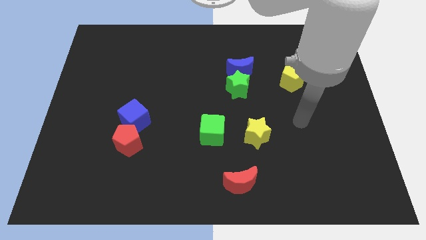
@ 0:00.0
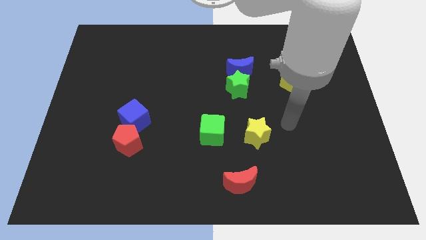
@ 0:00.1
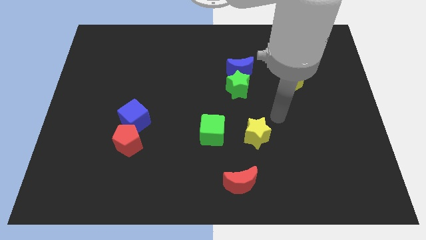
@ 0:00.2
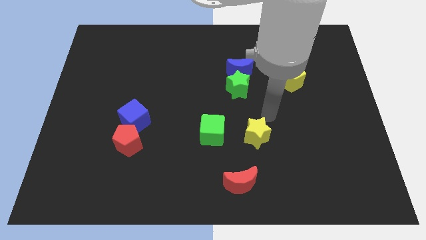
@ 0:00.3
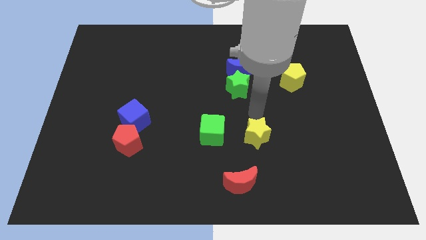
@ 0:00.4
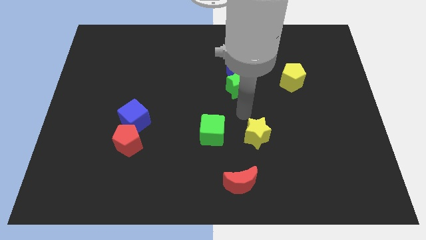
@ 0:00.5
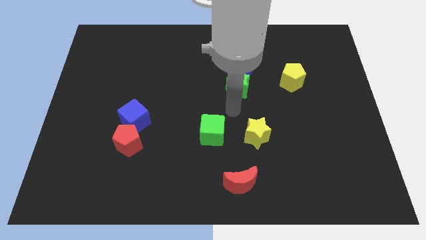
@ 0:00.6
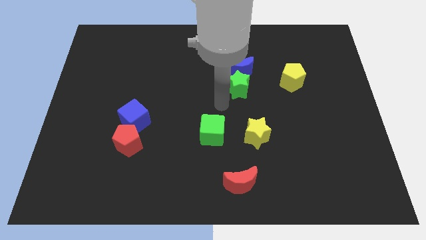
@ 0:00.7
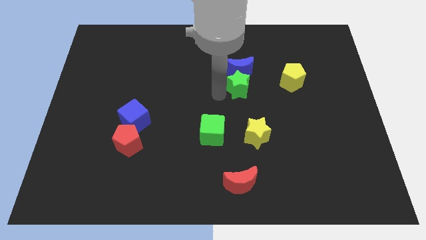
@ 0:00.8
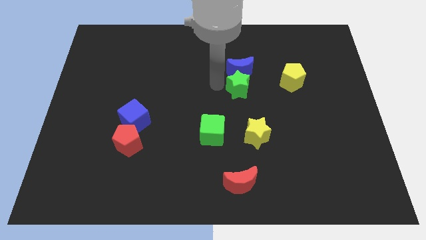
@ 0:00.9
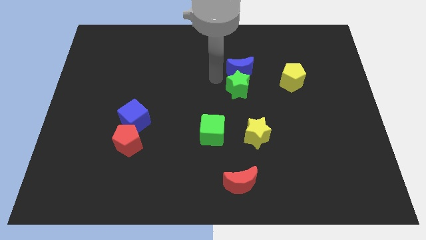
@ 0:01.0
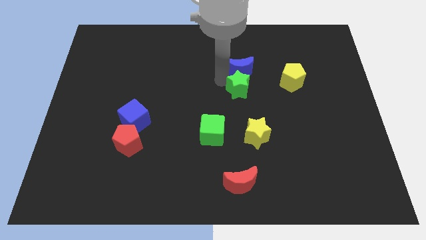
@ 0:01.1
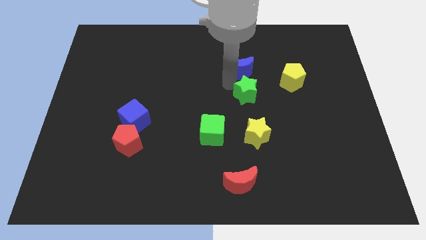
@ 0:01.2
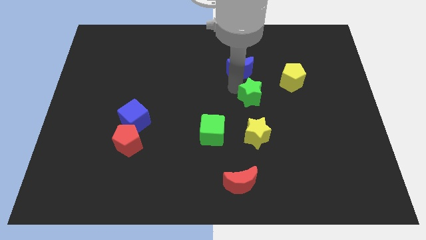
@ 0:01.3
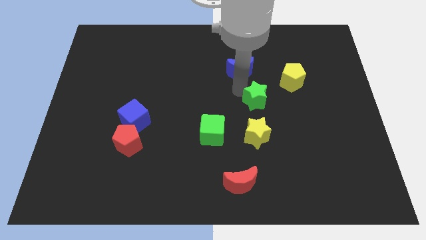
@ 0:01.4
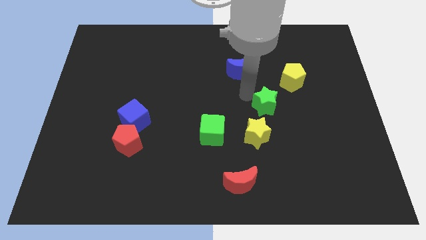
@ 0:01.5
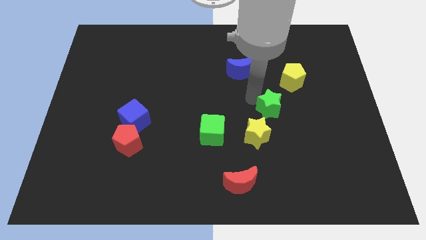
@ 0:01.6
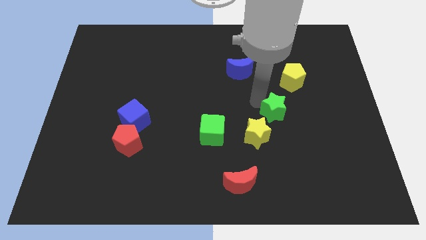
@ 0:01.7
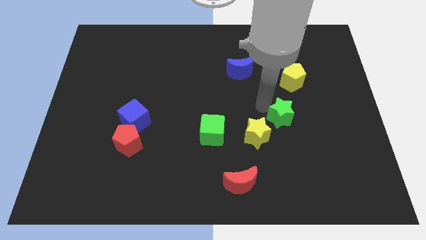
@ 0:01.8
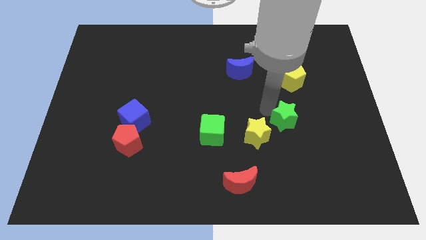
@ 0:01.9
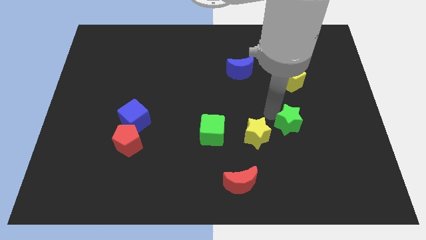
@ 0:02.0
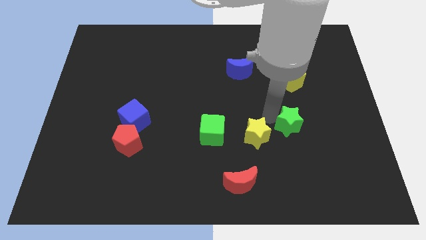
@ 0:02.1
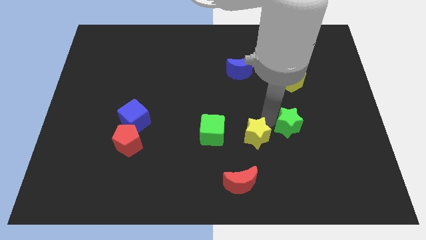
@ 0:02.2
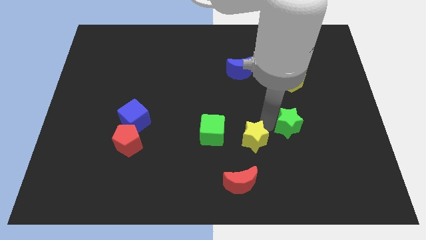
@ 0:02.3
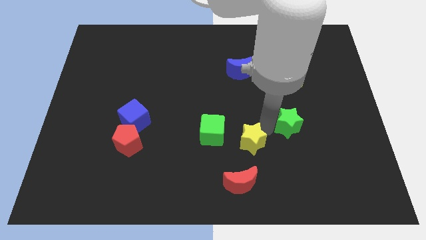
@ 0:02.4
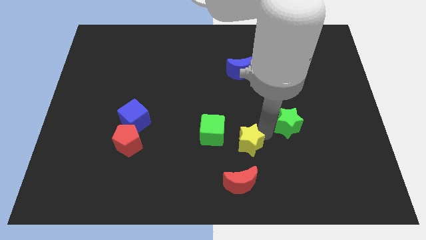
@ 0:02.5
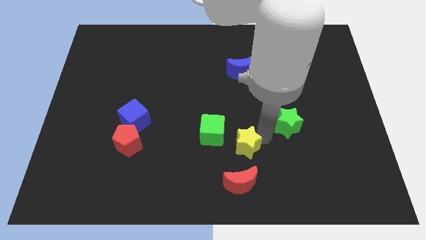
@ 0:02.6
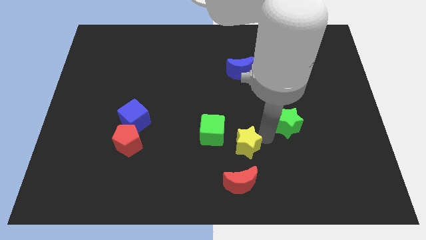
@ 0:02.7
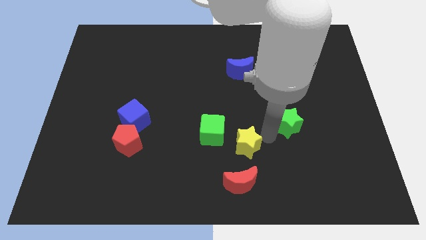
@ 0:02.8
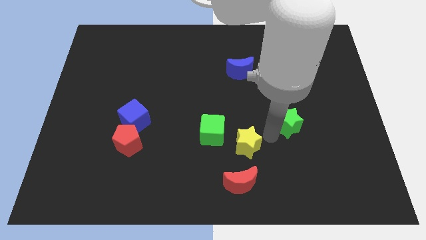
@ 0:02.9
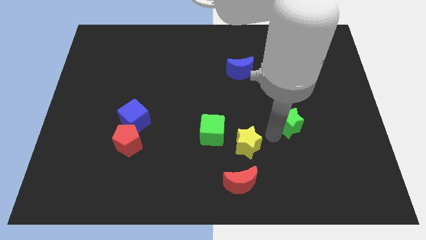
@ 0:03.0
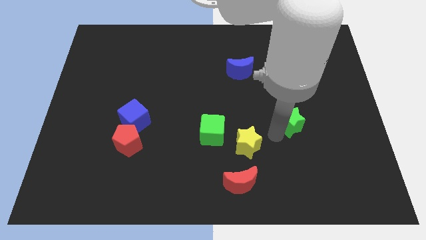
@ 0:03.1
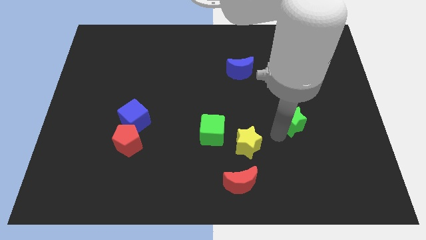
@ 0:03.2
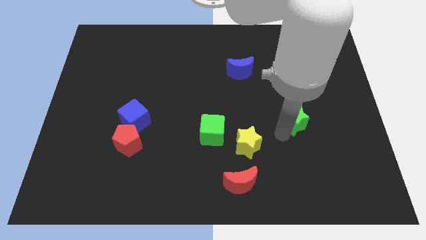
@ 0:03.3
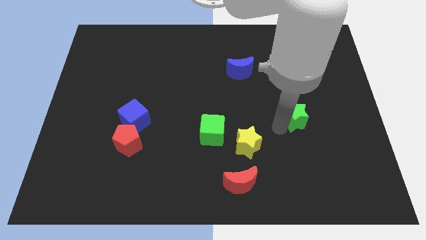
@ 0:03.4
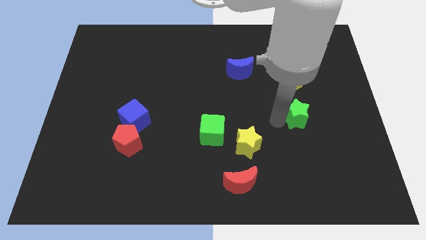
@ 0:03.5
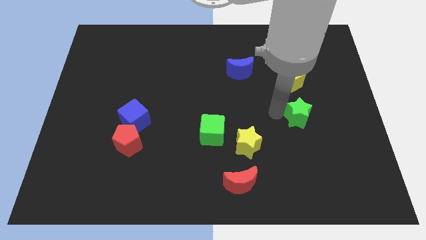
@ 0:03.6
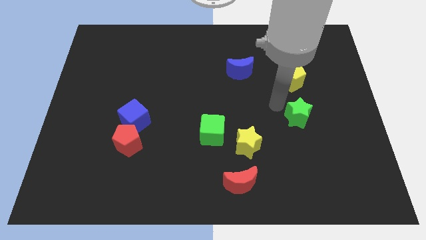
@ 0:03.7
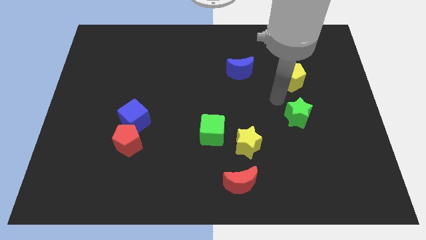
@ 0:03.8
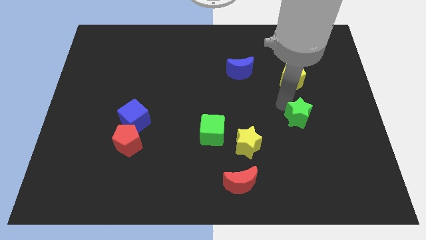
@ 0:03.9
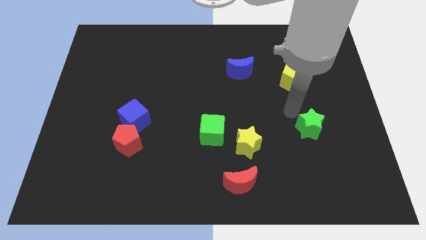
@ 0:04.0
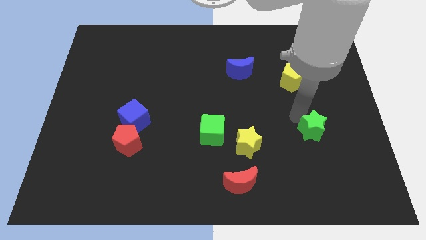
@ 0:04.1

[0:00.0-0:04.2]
slide the green star downwards and right

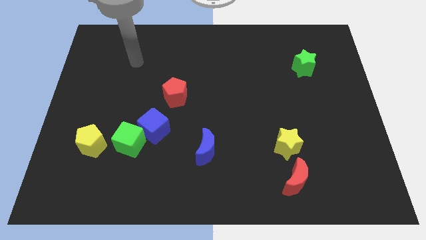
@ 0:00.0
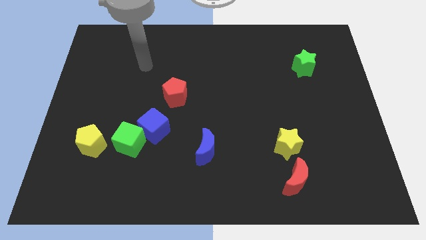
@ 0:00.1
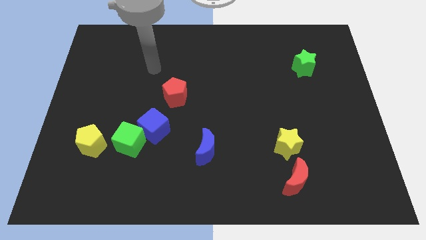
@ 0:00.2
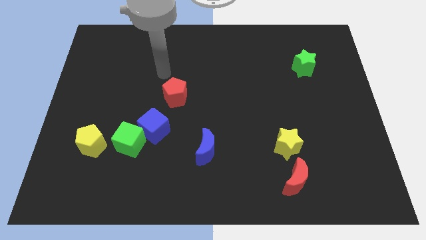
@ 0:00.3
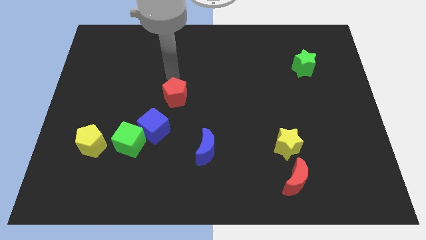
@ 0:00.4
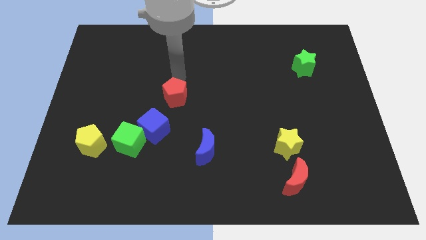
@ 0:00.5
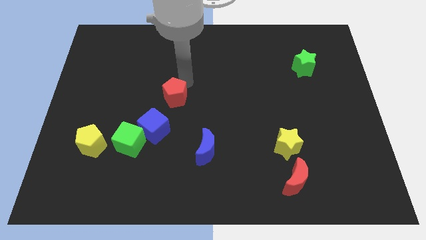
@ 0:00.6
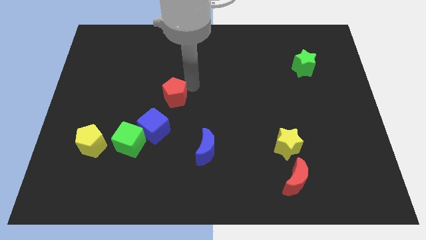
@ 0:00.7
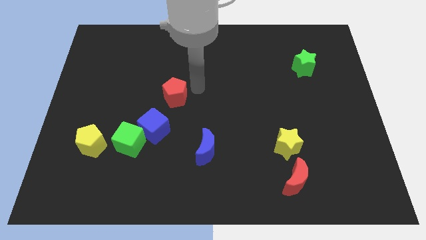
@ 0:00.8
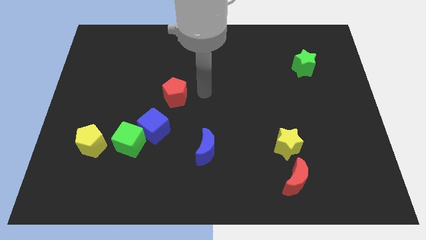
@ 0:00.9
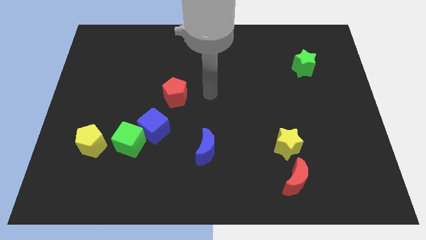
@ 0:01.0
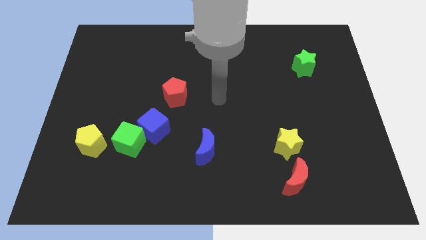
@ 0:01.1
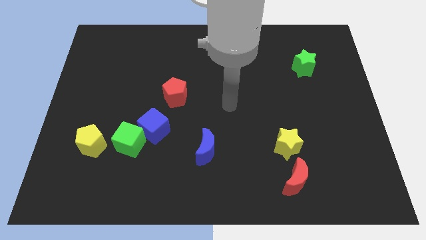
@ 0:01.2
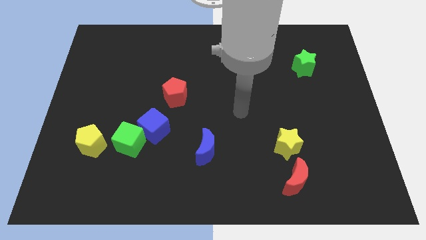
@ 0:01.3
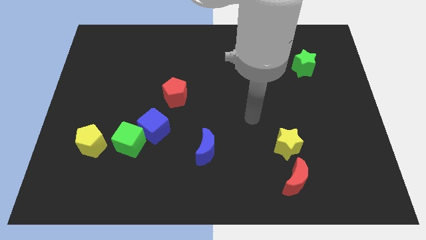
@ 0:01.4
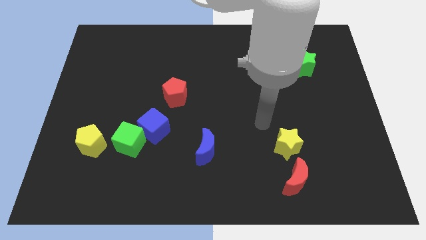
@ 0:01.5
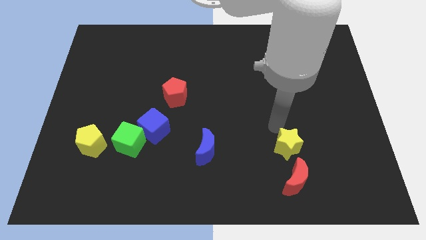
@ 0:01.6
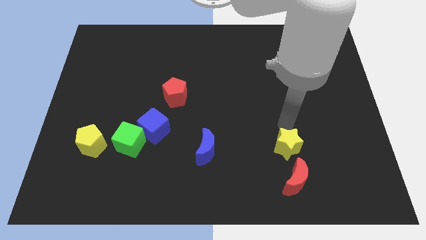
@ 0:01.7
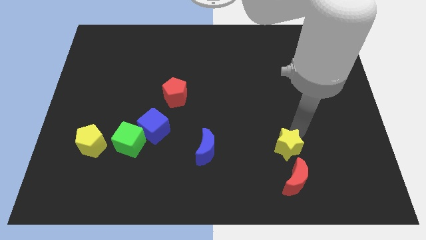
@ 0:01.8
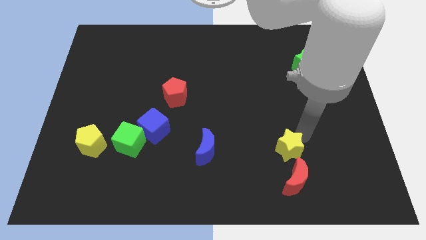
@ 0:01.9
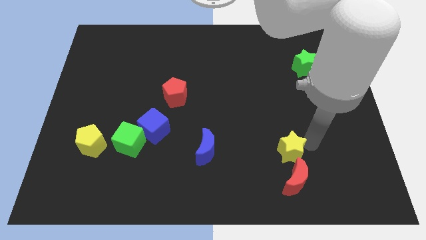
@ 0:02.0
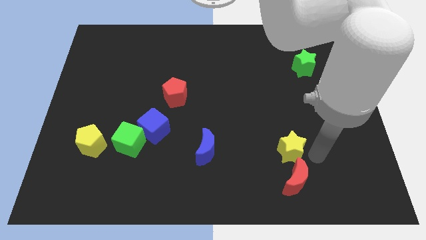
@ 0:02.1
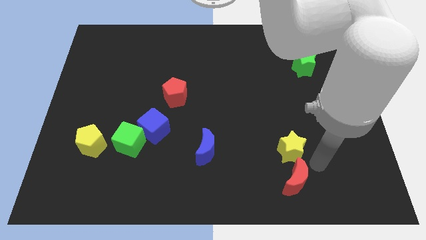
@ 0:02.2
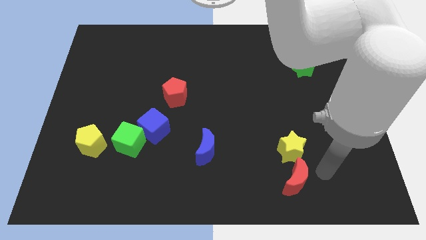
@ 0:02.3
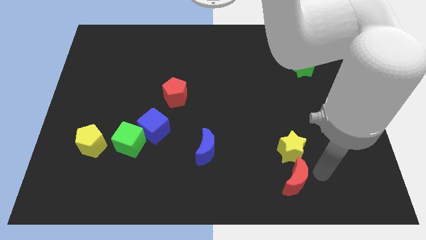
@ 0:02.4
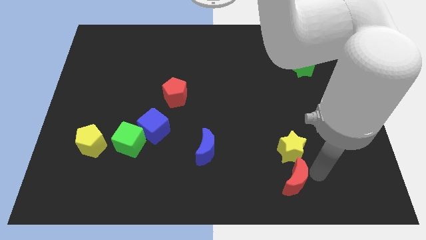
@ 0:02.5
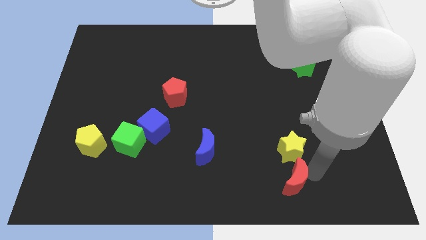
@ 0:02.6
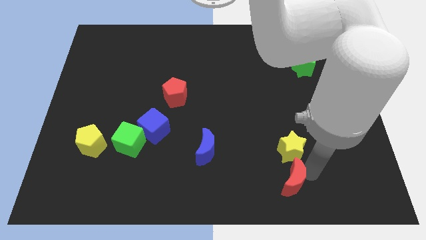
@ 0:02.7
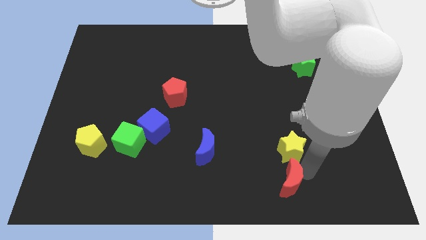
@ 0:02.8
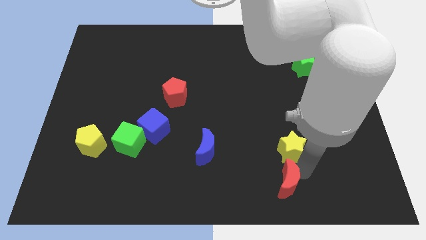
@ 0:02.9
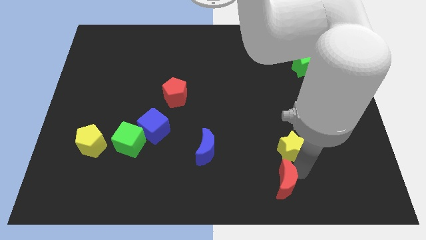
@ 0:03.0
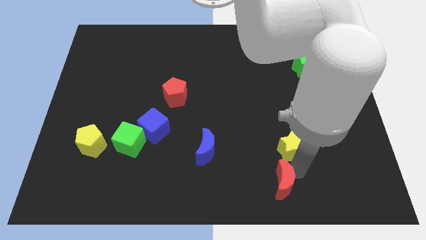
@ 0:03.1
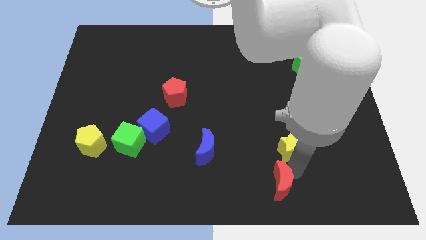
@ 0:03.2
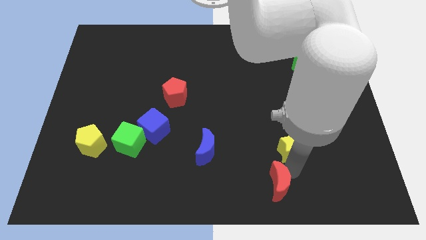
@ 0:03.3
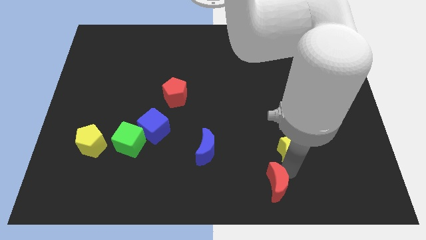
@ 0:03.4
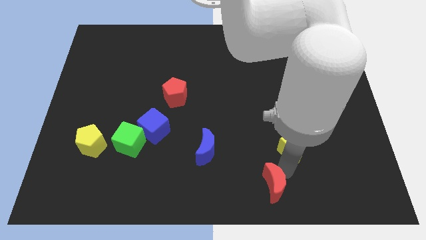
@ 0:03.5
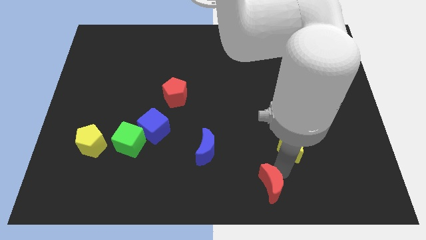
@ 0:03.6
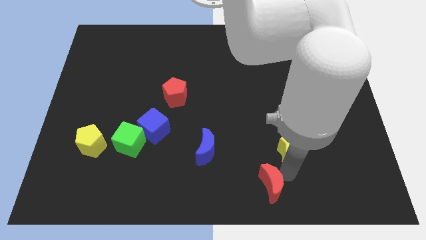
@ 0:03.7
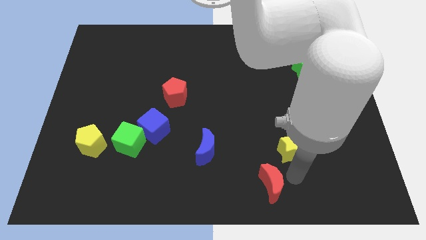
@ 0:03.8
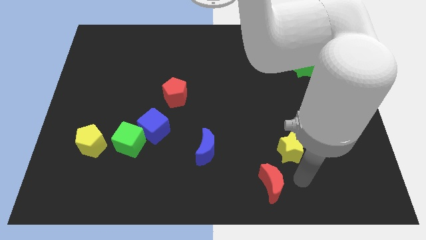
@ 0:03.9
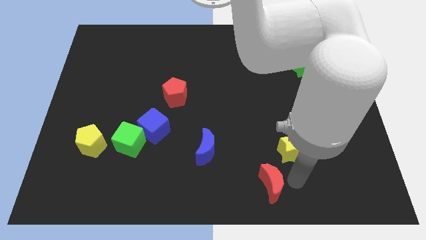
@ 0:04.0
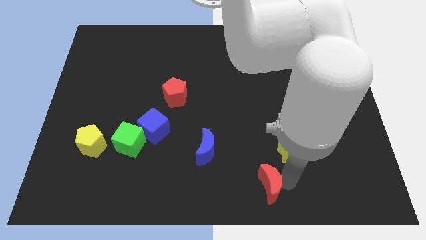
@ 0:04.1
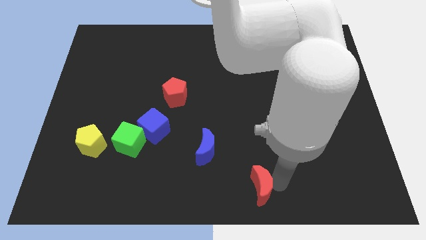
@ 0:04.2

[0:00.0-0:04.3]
push the red moon to the left somewhat
